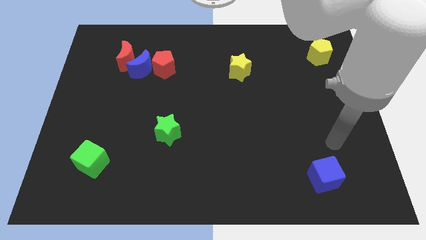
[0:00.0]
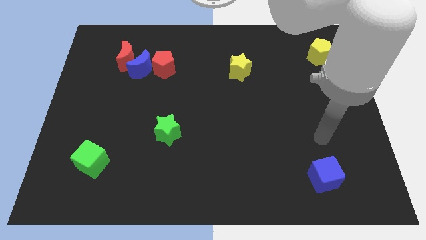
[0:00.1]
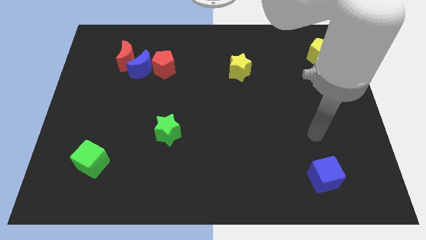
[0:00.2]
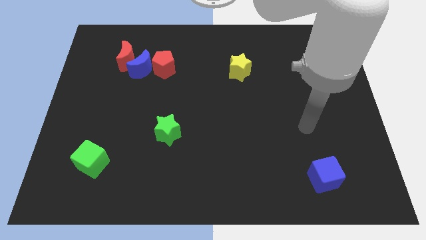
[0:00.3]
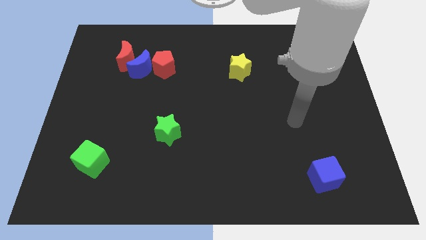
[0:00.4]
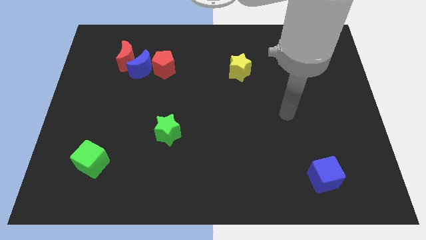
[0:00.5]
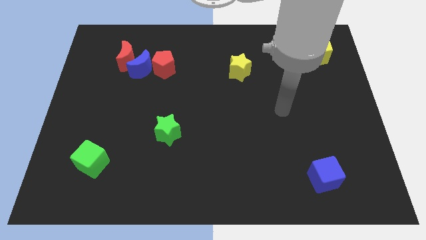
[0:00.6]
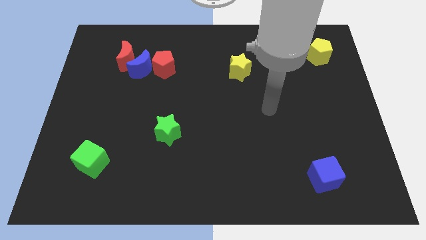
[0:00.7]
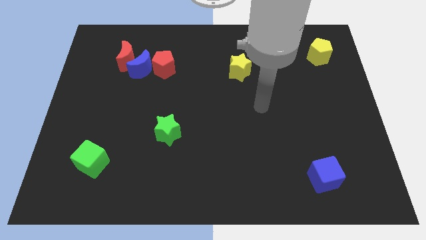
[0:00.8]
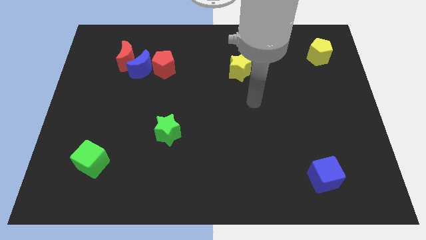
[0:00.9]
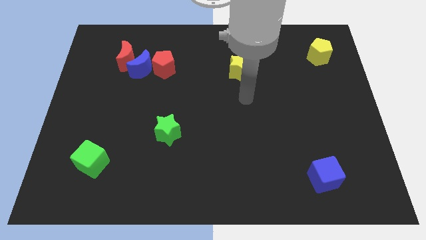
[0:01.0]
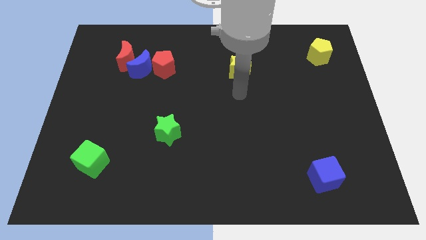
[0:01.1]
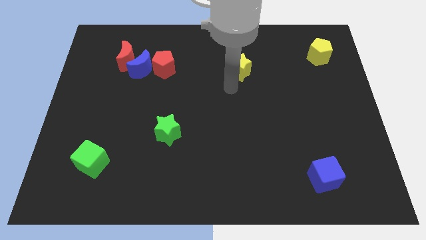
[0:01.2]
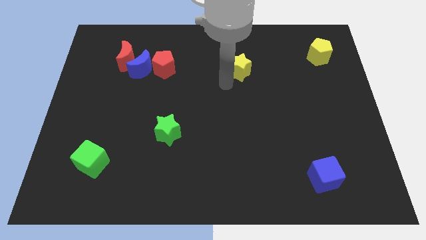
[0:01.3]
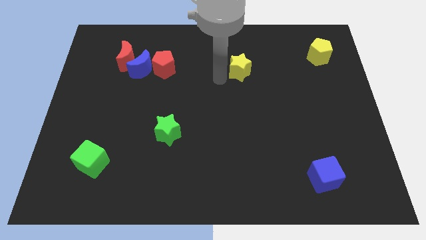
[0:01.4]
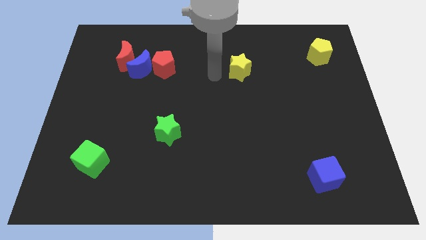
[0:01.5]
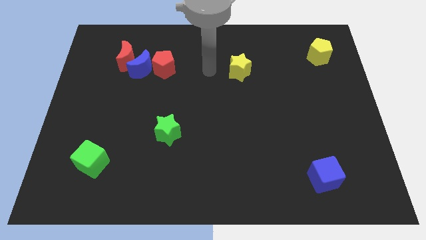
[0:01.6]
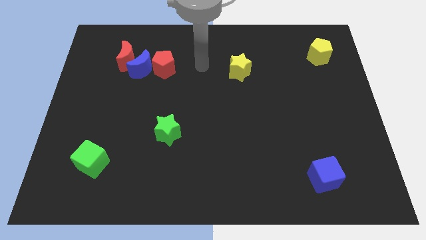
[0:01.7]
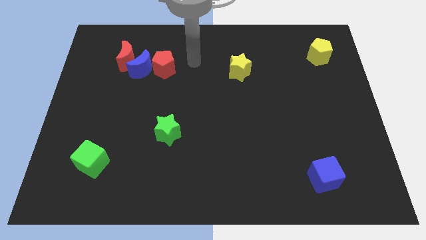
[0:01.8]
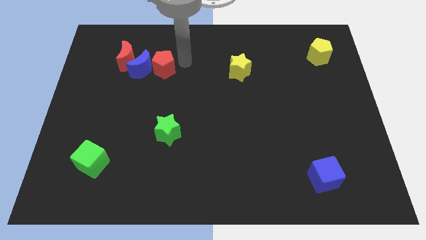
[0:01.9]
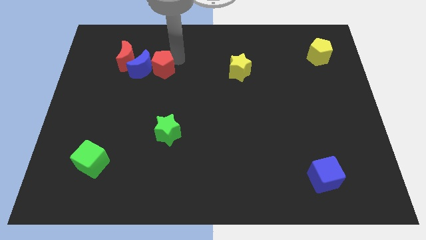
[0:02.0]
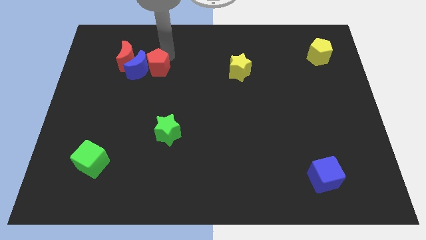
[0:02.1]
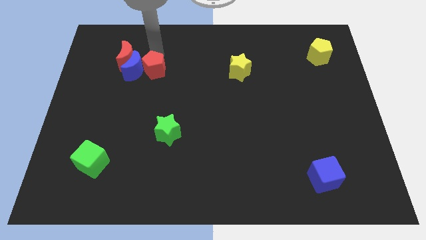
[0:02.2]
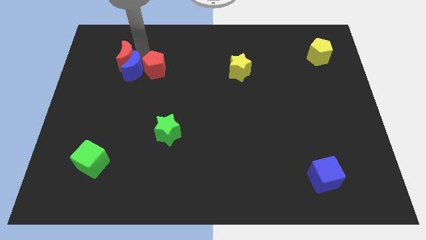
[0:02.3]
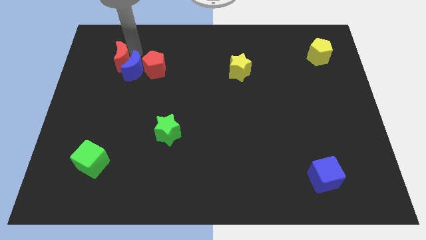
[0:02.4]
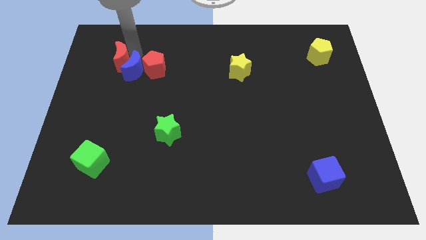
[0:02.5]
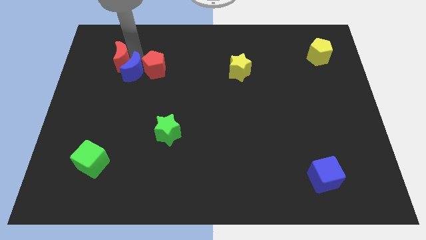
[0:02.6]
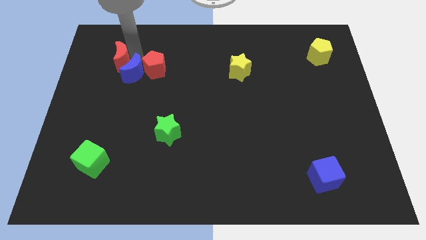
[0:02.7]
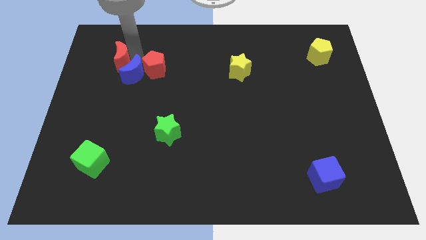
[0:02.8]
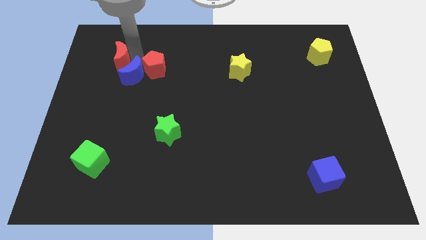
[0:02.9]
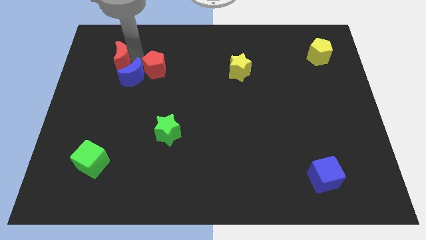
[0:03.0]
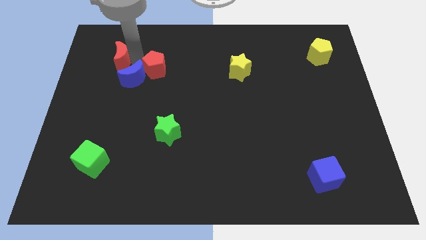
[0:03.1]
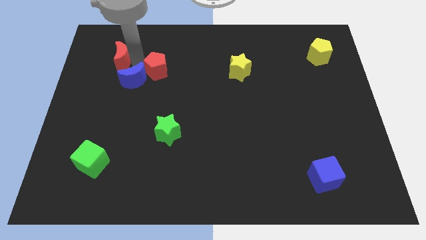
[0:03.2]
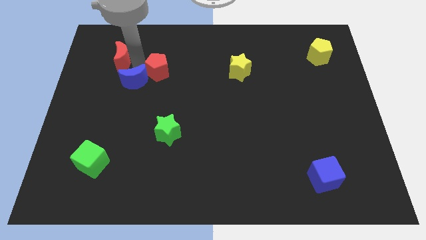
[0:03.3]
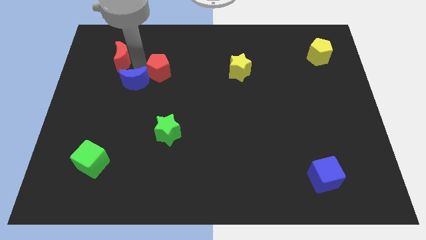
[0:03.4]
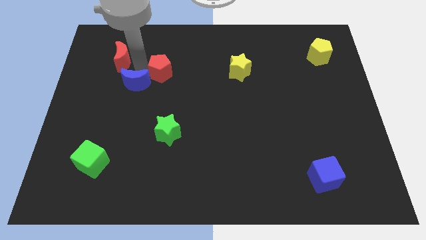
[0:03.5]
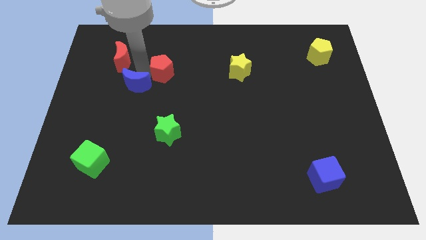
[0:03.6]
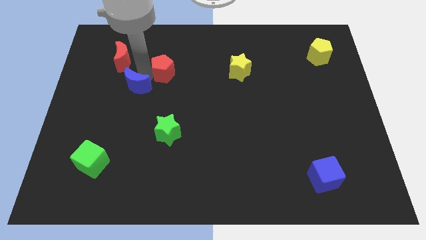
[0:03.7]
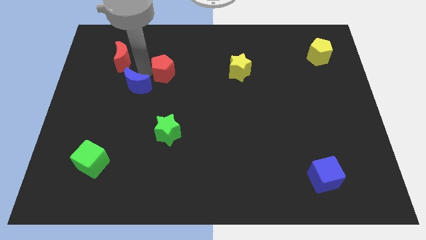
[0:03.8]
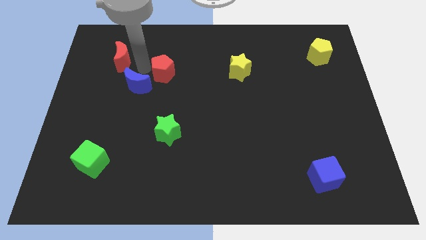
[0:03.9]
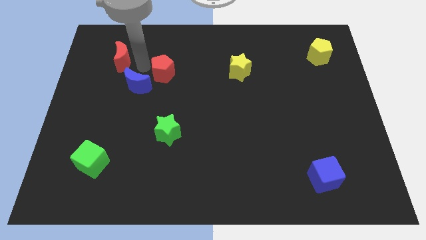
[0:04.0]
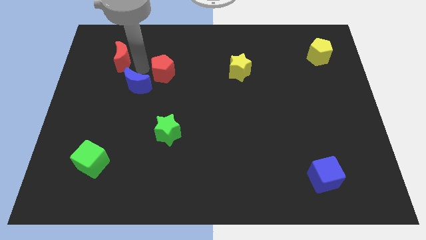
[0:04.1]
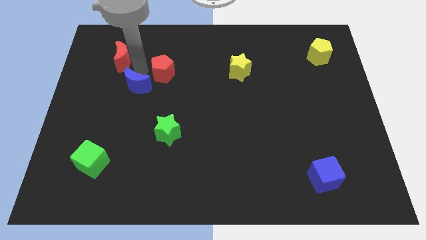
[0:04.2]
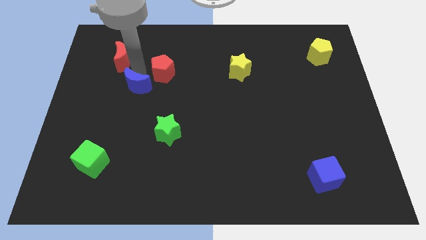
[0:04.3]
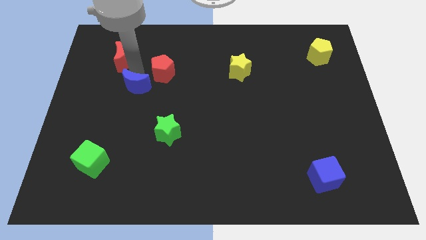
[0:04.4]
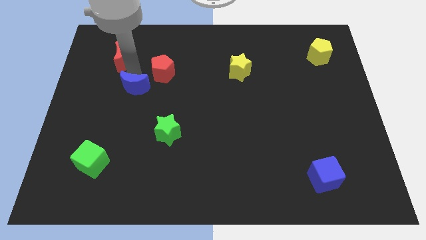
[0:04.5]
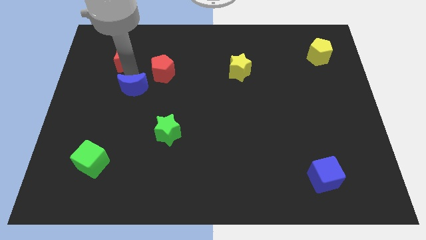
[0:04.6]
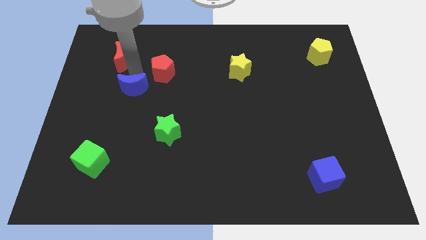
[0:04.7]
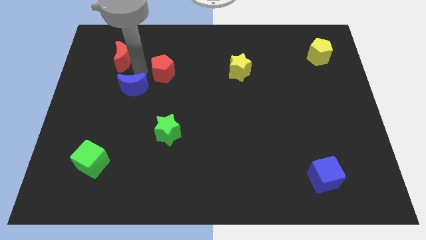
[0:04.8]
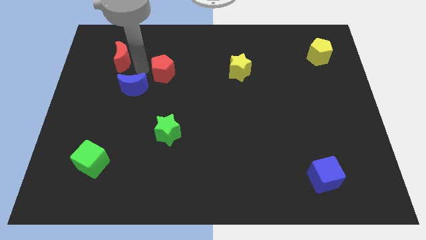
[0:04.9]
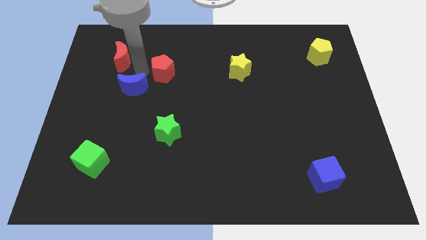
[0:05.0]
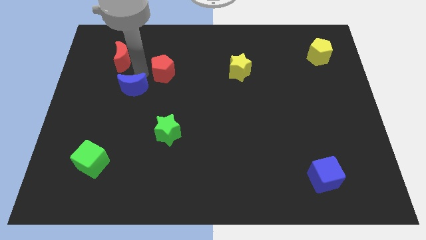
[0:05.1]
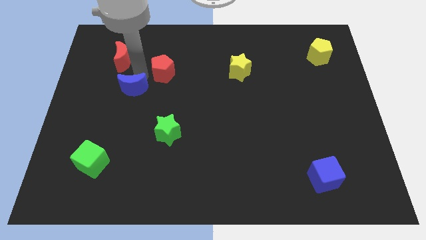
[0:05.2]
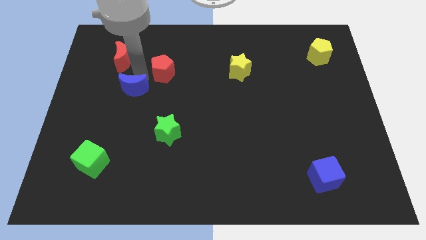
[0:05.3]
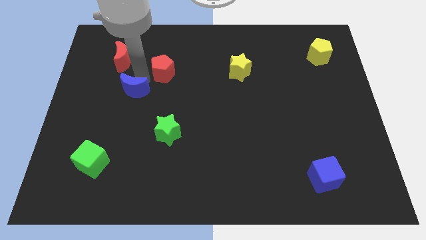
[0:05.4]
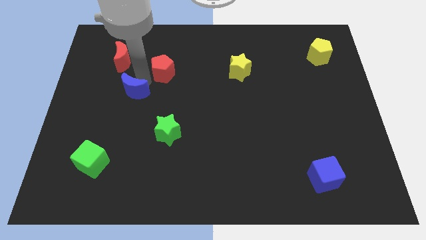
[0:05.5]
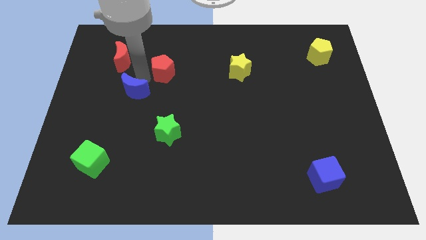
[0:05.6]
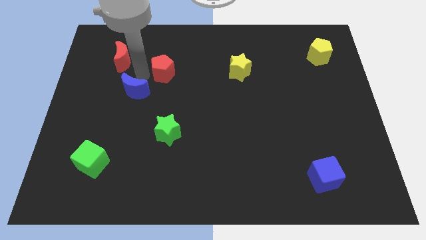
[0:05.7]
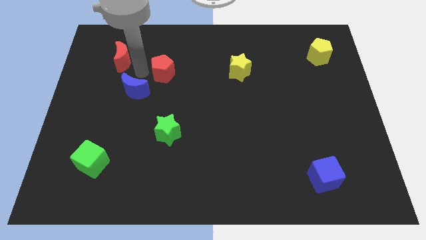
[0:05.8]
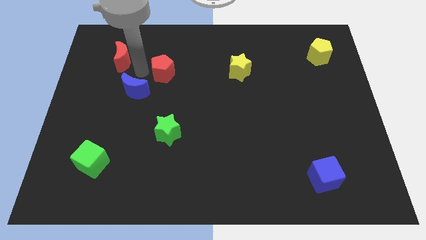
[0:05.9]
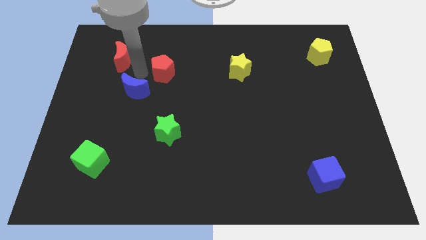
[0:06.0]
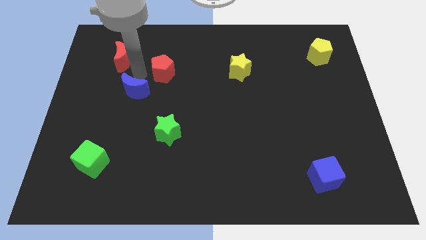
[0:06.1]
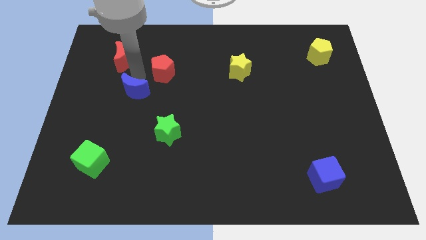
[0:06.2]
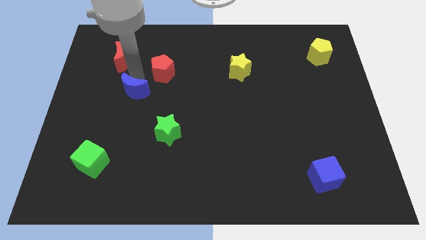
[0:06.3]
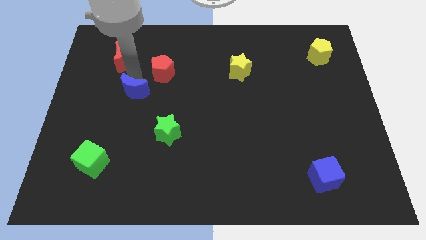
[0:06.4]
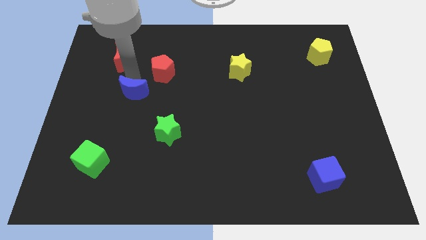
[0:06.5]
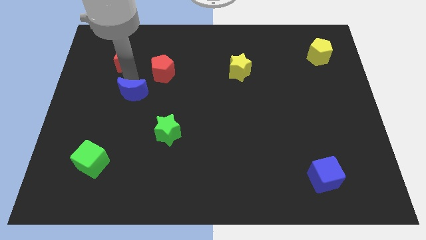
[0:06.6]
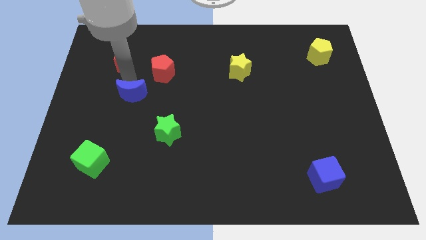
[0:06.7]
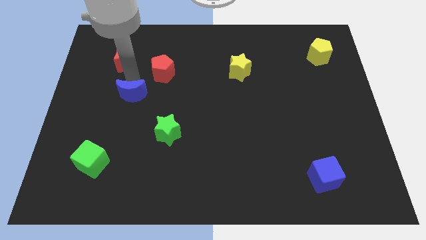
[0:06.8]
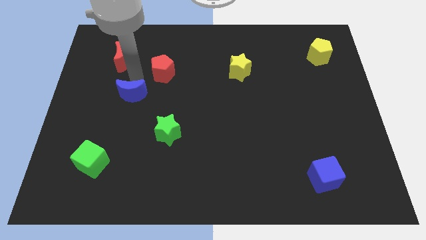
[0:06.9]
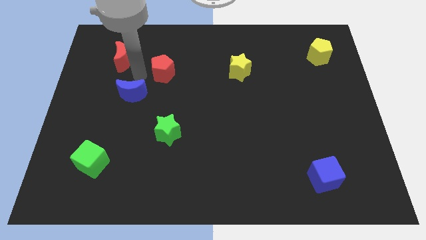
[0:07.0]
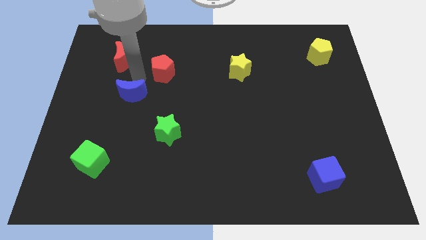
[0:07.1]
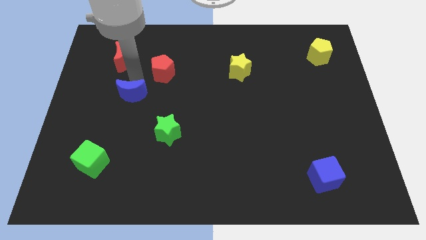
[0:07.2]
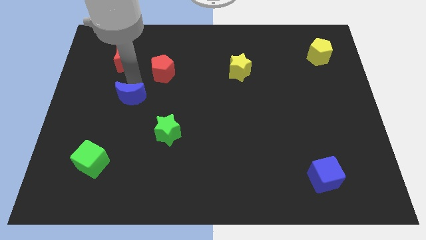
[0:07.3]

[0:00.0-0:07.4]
move the blue moon away from the red moon and red pentagon

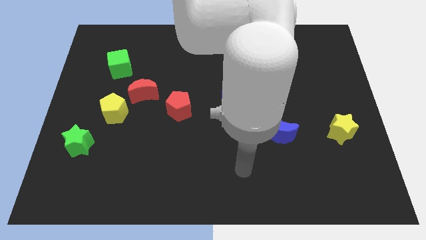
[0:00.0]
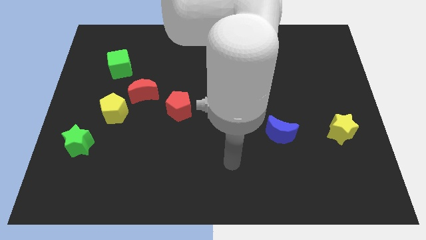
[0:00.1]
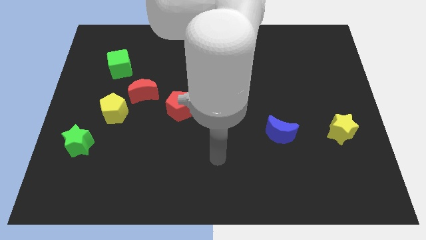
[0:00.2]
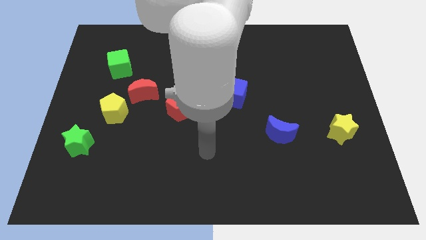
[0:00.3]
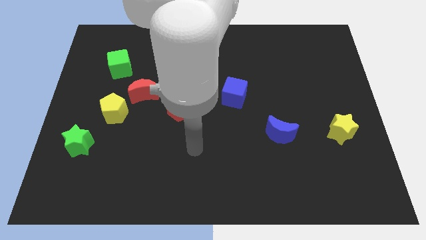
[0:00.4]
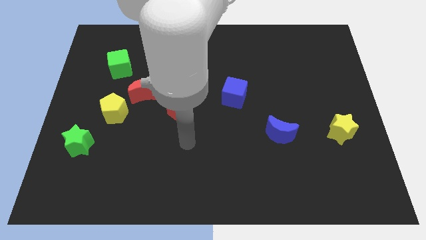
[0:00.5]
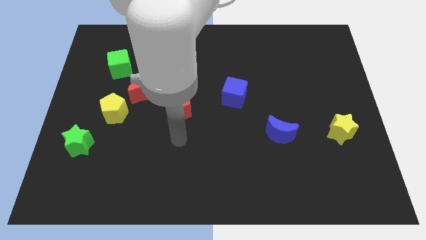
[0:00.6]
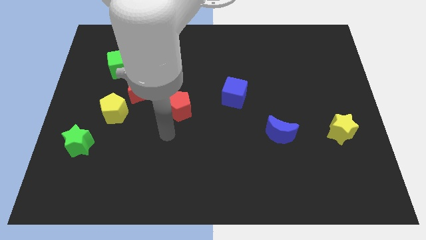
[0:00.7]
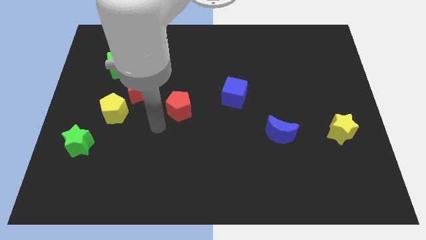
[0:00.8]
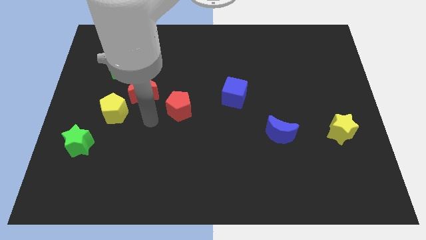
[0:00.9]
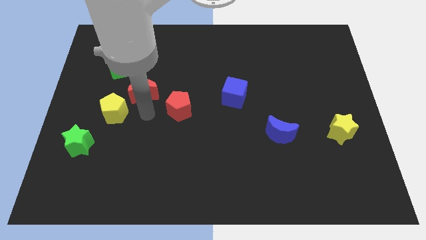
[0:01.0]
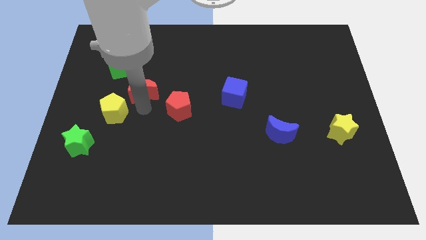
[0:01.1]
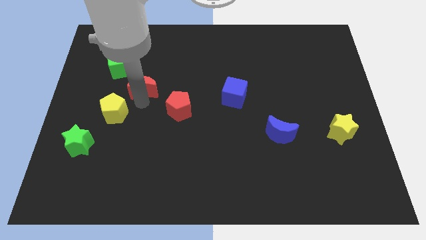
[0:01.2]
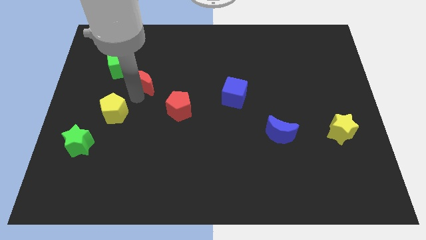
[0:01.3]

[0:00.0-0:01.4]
pull the yellow pentagon apart from the red moon

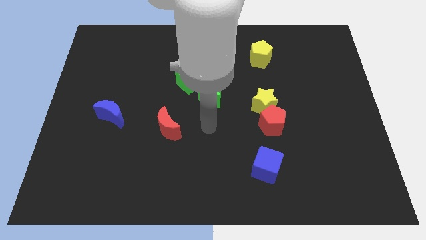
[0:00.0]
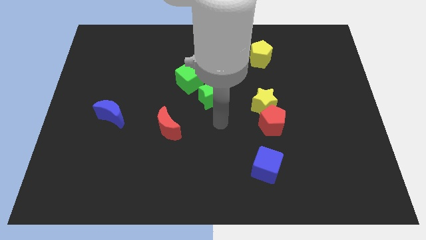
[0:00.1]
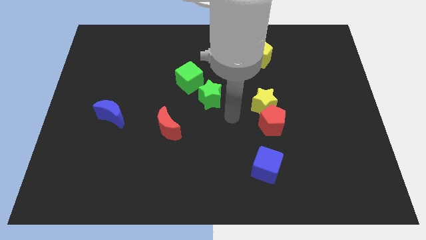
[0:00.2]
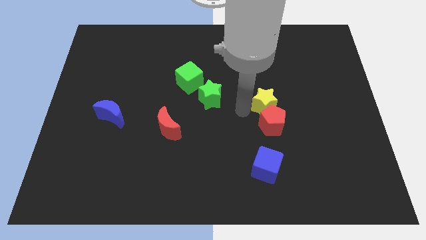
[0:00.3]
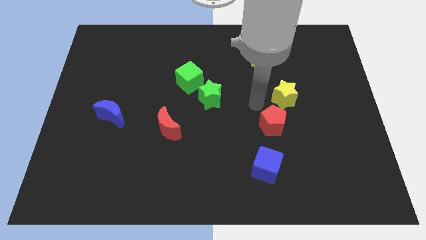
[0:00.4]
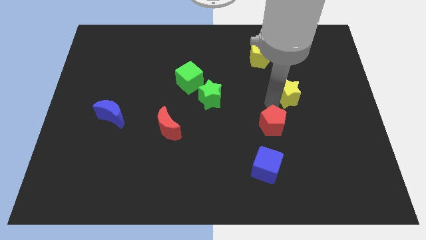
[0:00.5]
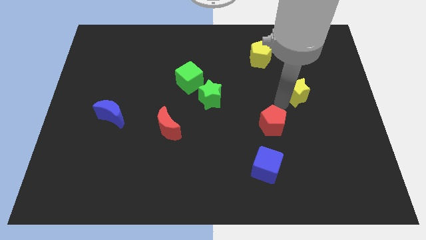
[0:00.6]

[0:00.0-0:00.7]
separate the red pentagon from the yellow star
